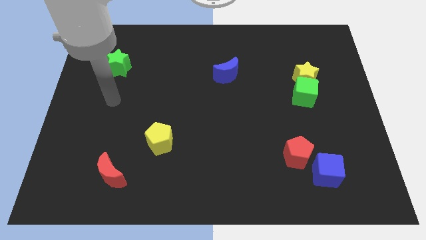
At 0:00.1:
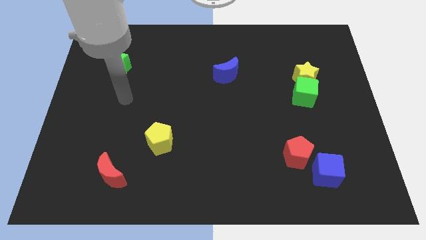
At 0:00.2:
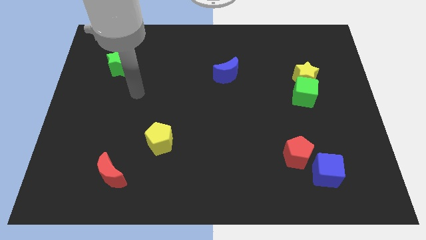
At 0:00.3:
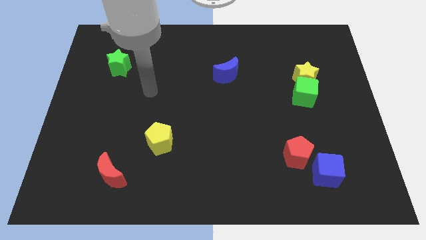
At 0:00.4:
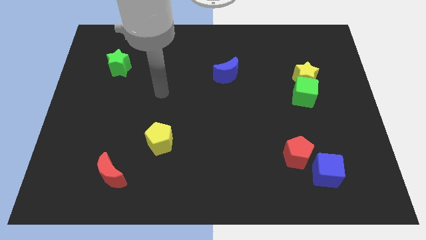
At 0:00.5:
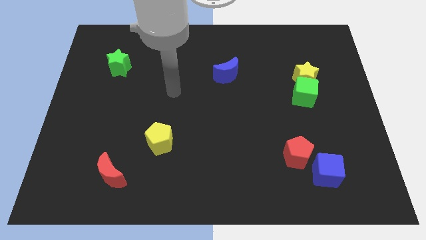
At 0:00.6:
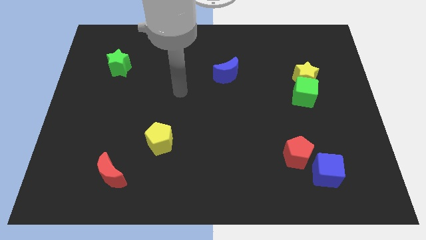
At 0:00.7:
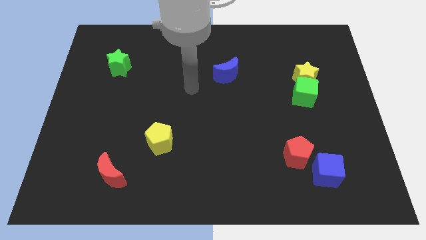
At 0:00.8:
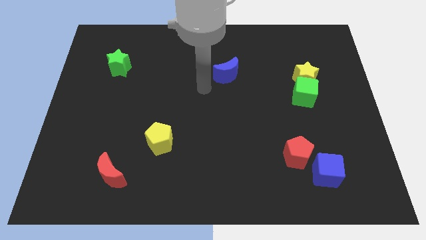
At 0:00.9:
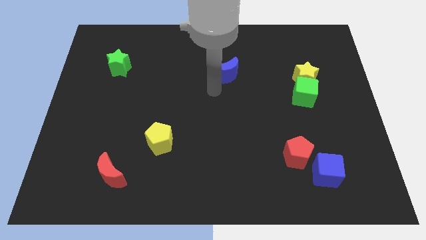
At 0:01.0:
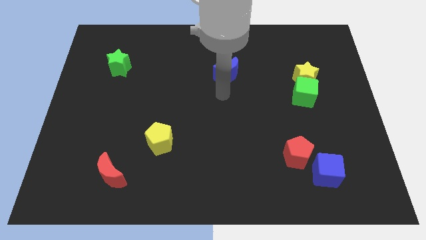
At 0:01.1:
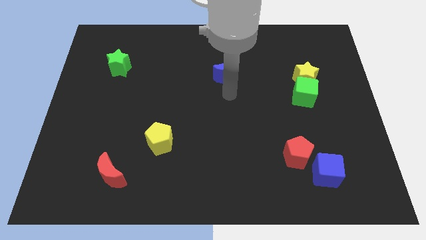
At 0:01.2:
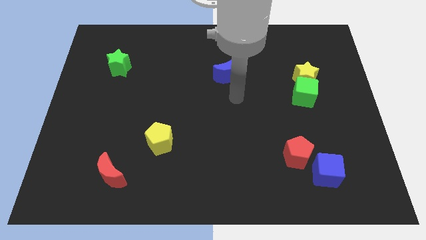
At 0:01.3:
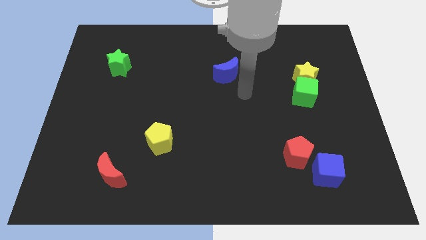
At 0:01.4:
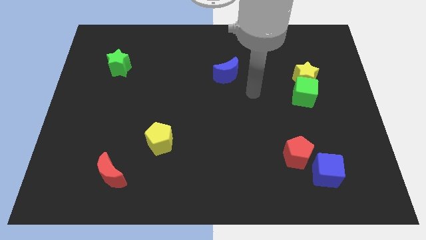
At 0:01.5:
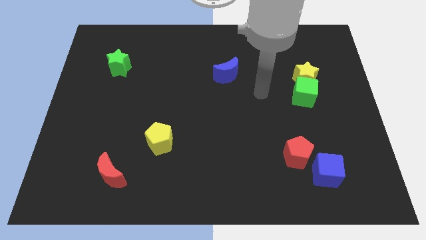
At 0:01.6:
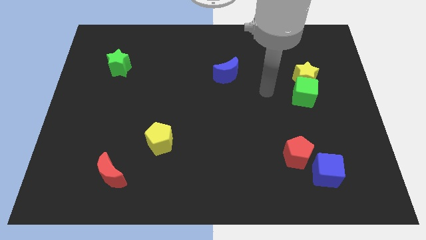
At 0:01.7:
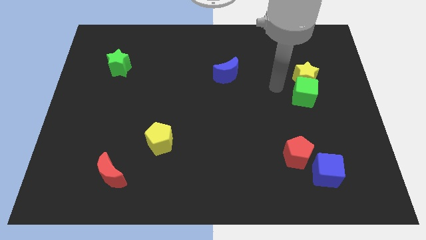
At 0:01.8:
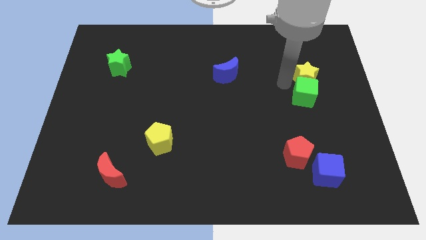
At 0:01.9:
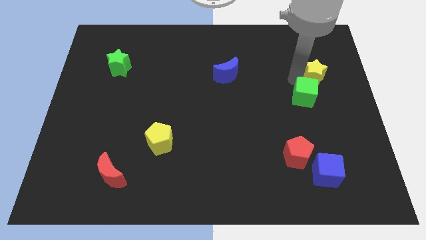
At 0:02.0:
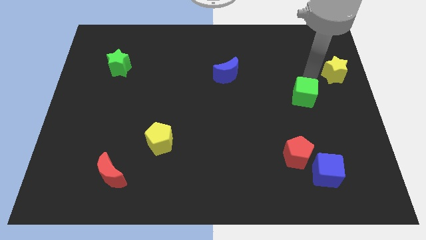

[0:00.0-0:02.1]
pull the green cube apart from the yellow star

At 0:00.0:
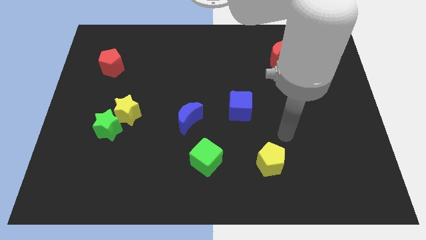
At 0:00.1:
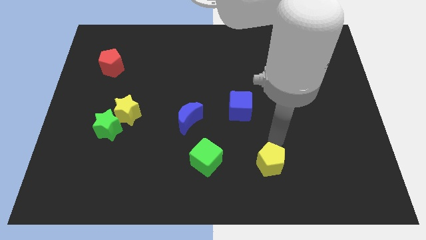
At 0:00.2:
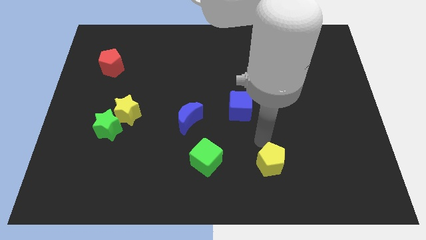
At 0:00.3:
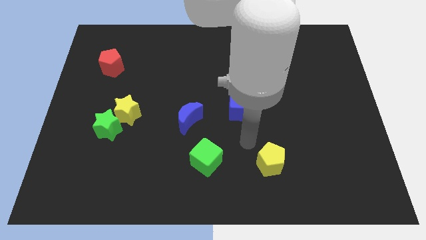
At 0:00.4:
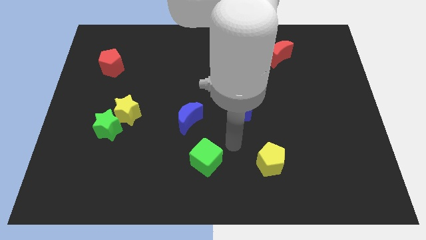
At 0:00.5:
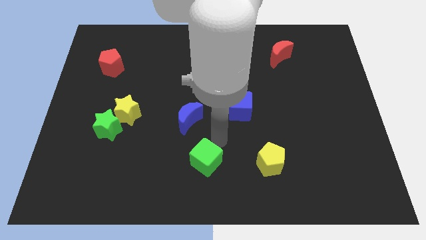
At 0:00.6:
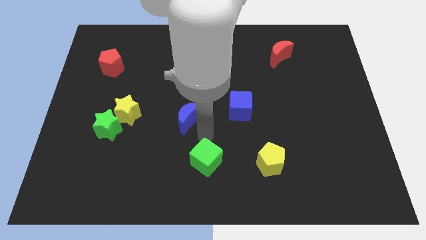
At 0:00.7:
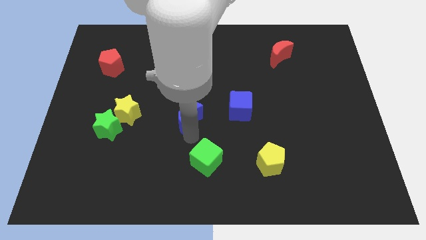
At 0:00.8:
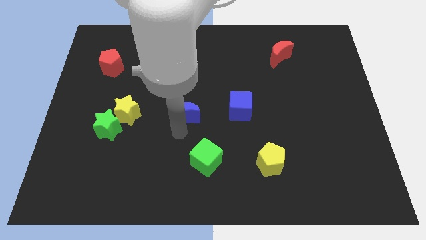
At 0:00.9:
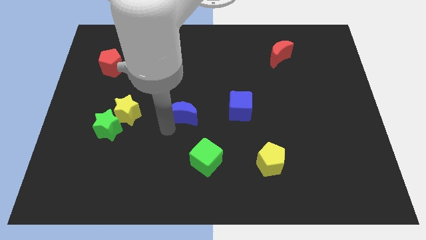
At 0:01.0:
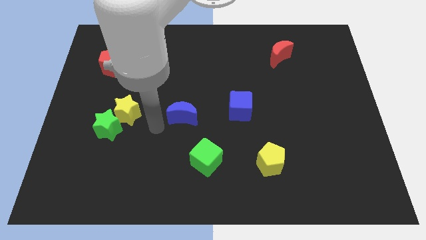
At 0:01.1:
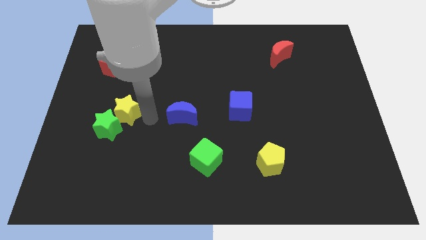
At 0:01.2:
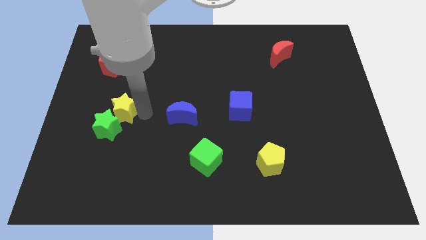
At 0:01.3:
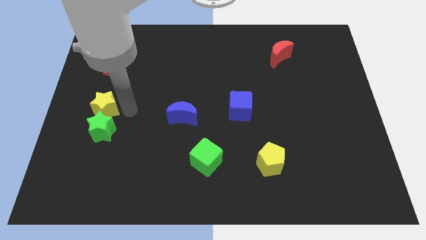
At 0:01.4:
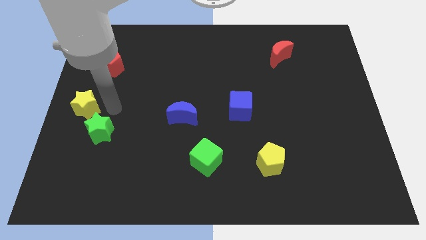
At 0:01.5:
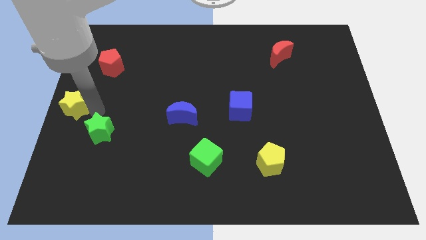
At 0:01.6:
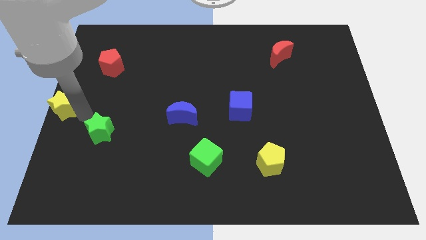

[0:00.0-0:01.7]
move the green star away from the yellow star

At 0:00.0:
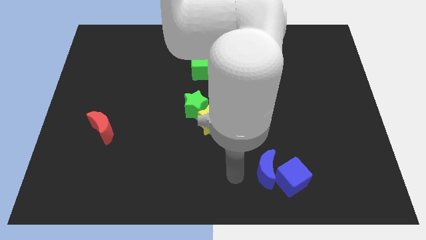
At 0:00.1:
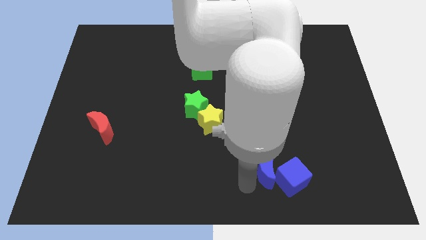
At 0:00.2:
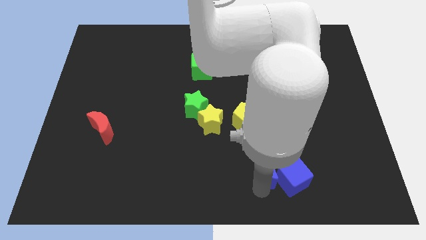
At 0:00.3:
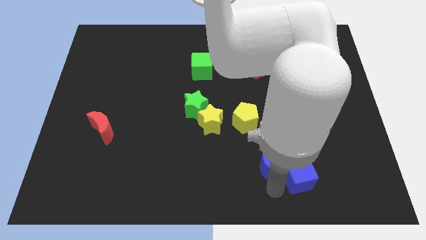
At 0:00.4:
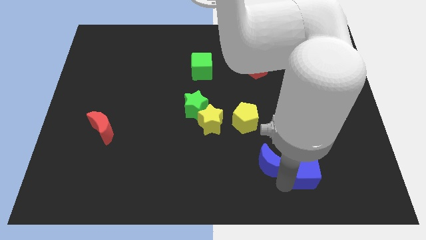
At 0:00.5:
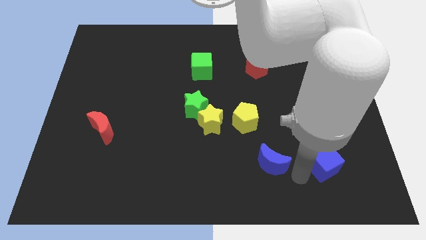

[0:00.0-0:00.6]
move the blue moon away from the blue cube

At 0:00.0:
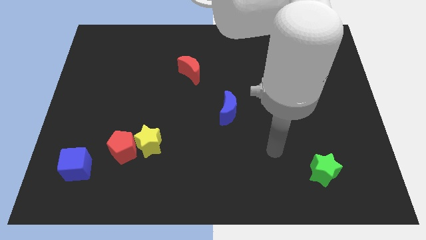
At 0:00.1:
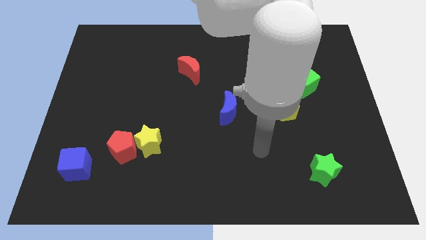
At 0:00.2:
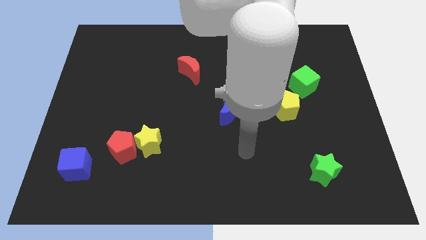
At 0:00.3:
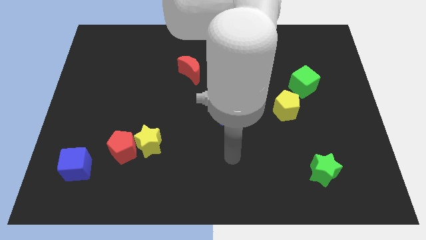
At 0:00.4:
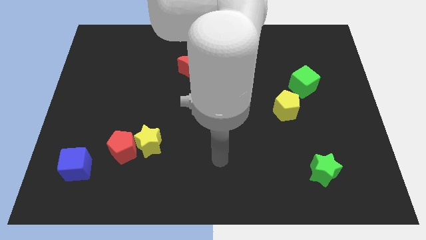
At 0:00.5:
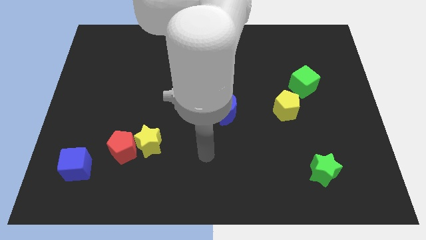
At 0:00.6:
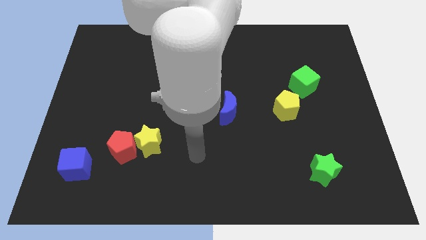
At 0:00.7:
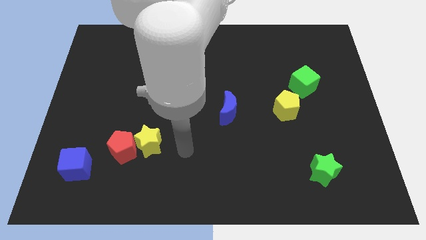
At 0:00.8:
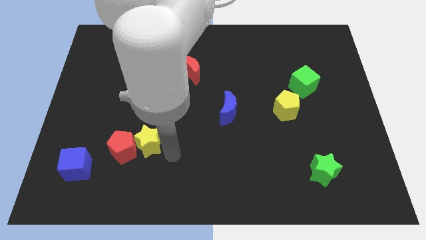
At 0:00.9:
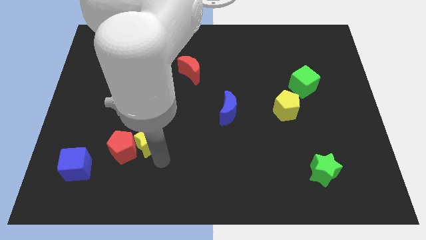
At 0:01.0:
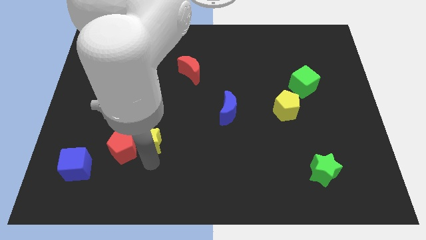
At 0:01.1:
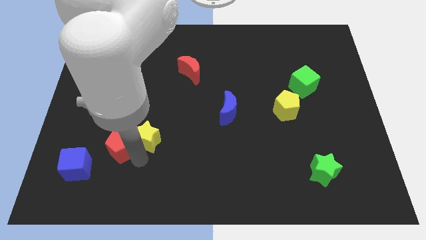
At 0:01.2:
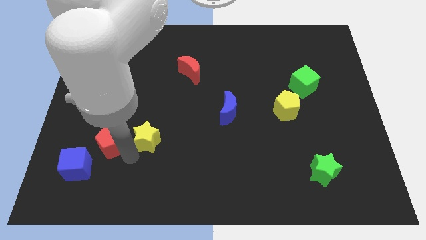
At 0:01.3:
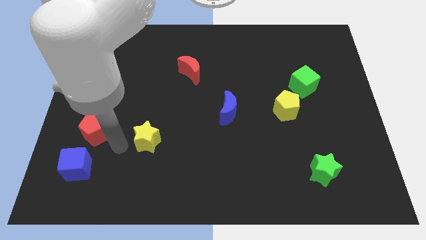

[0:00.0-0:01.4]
separate the yellow star from the red pentagon

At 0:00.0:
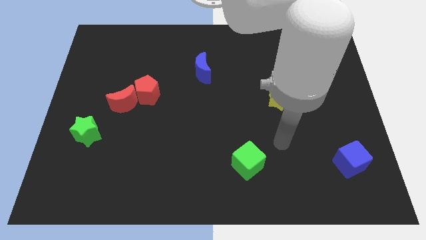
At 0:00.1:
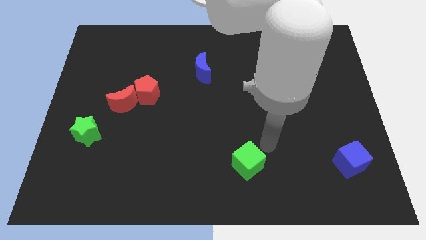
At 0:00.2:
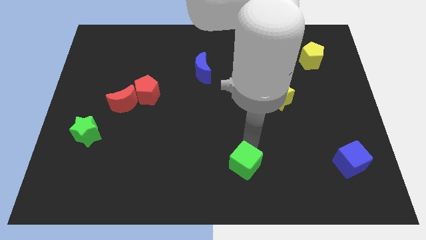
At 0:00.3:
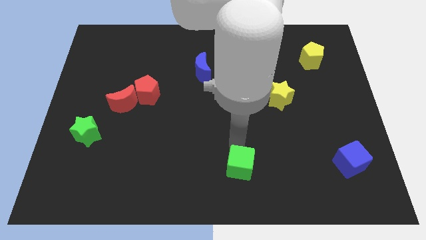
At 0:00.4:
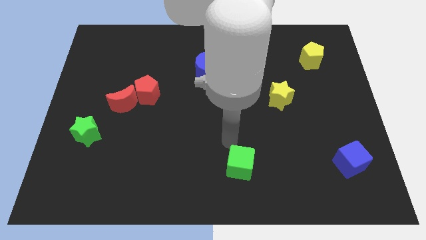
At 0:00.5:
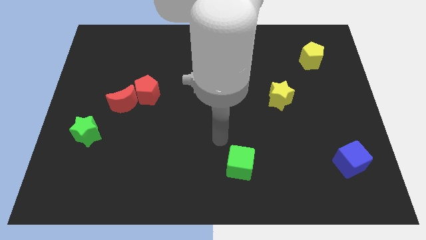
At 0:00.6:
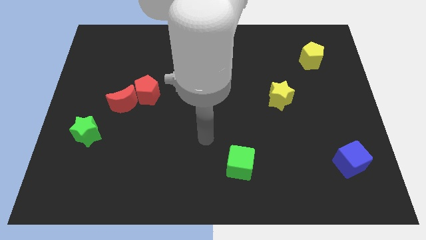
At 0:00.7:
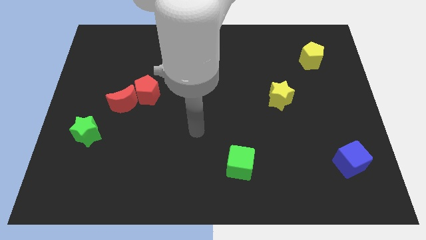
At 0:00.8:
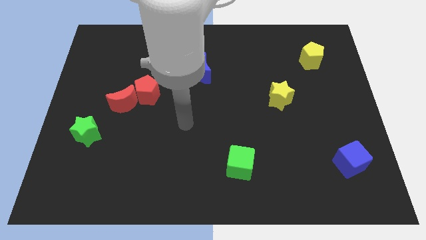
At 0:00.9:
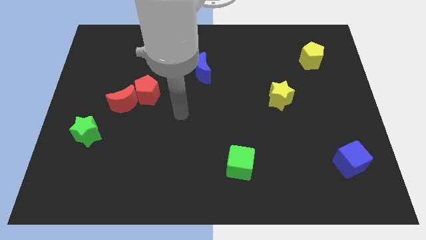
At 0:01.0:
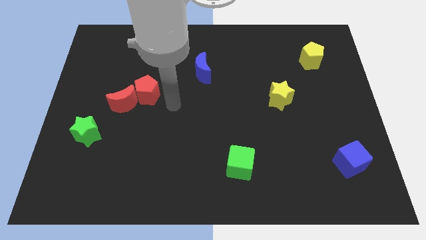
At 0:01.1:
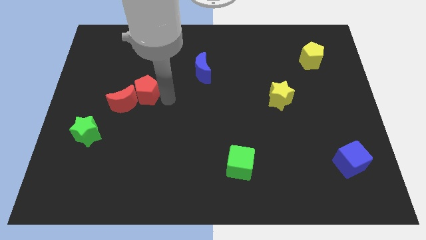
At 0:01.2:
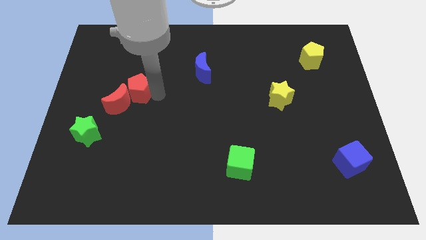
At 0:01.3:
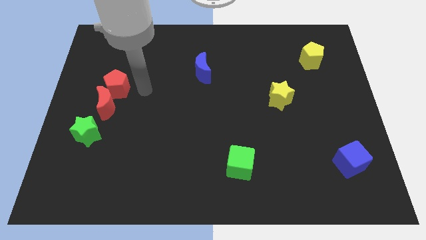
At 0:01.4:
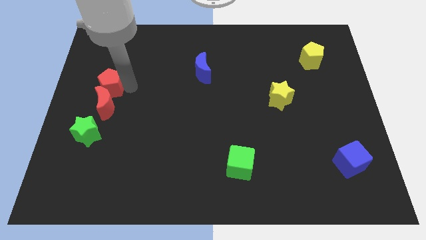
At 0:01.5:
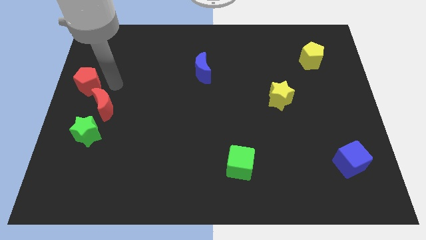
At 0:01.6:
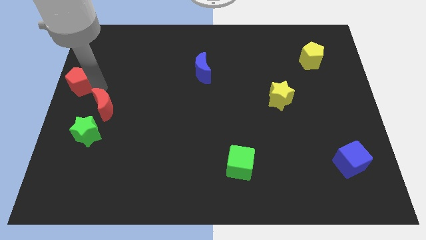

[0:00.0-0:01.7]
move the red moon away from the red pentagon

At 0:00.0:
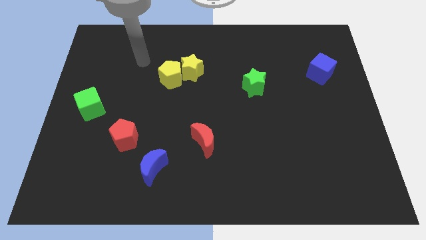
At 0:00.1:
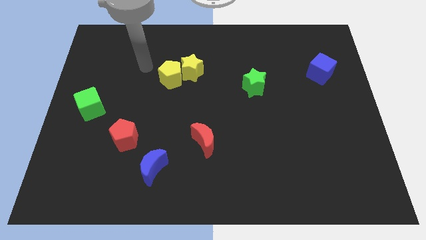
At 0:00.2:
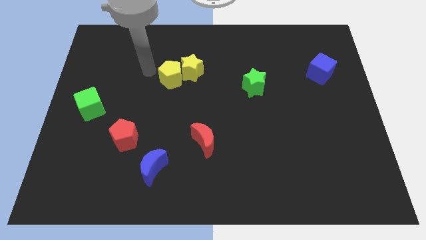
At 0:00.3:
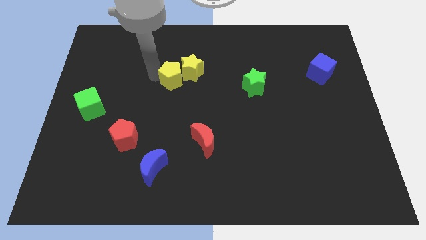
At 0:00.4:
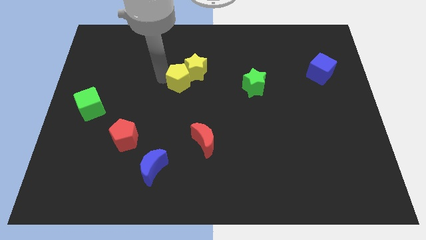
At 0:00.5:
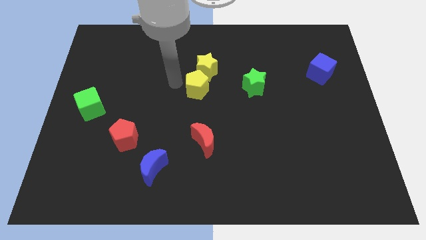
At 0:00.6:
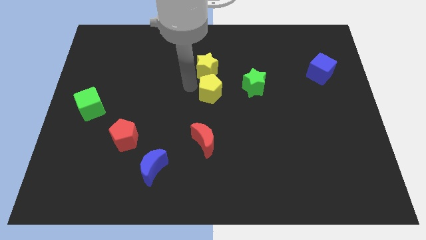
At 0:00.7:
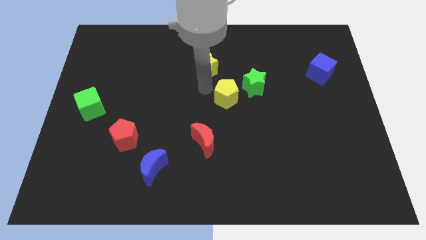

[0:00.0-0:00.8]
move the yellow star away from the yellow pentagon

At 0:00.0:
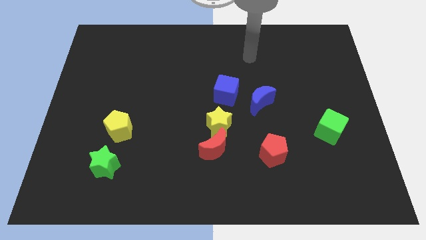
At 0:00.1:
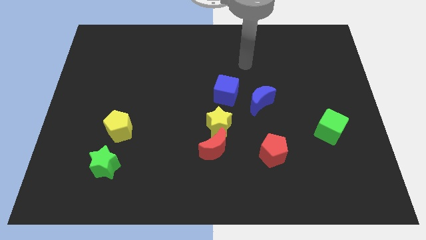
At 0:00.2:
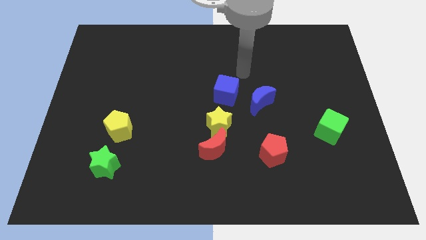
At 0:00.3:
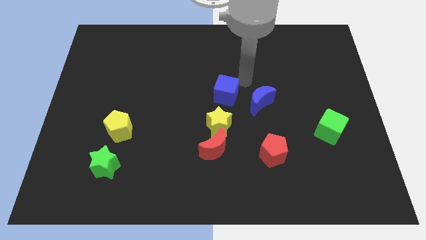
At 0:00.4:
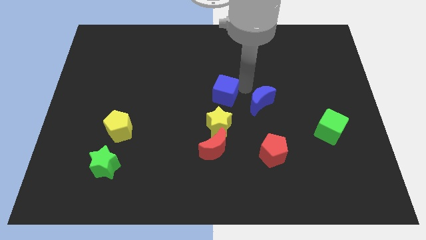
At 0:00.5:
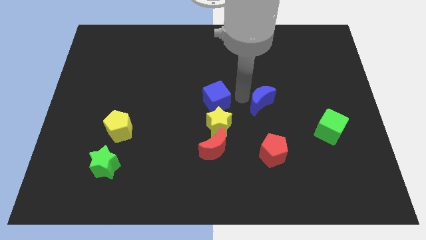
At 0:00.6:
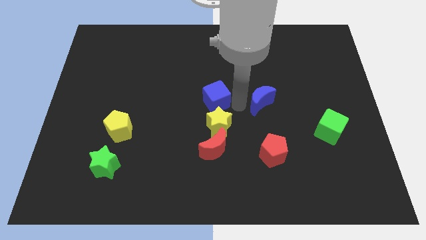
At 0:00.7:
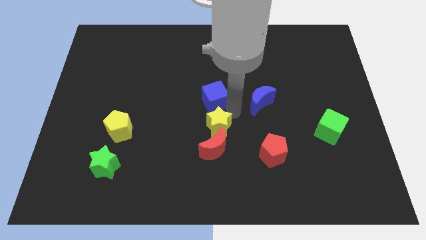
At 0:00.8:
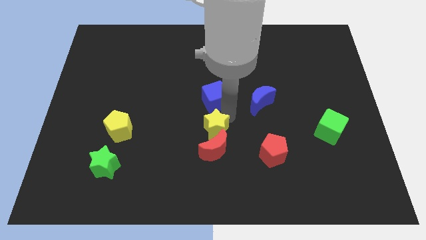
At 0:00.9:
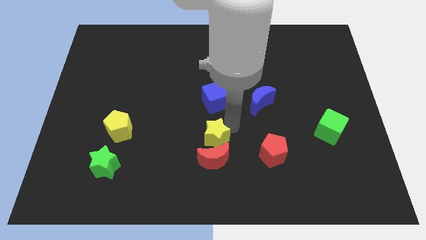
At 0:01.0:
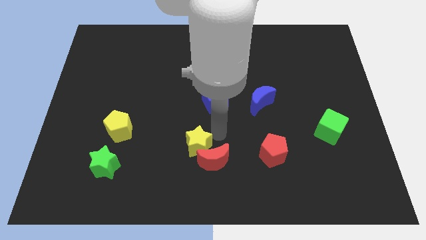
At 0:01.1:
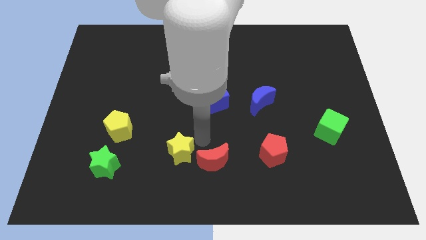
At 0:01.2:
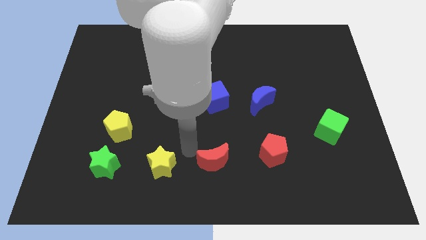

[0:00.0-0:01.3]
pull the red moon apart from the yellow star
